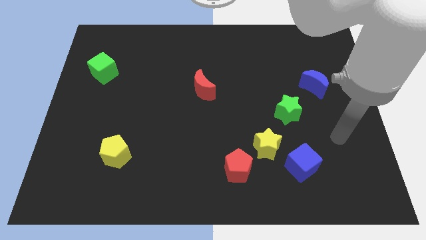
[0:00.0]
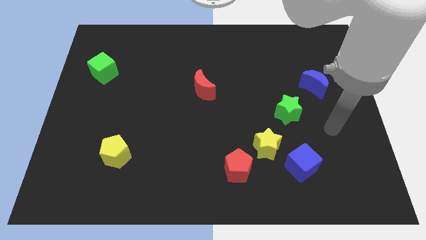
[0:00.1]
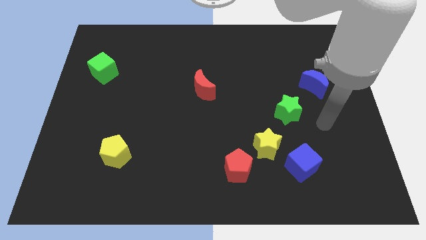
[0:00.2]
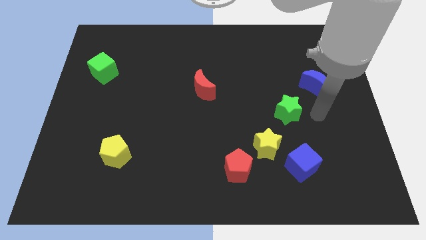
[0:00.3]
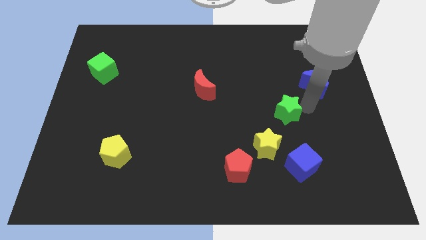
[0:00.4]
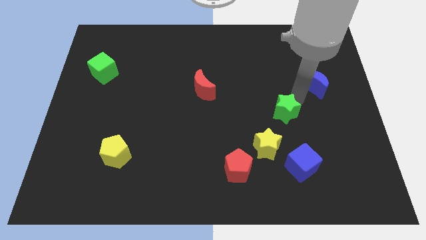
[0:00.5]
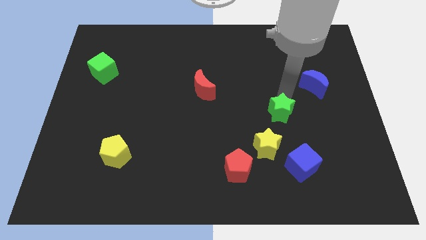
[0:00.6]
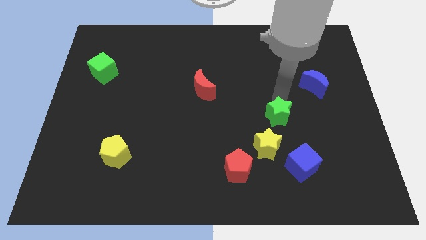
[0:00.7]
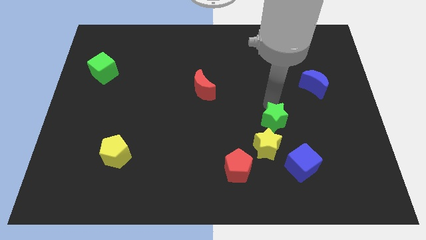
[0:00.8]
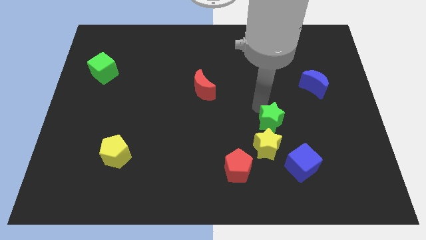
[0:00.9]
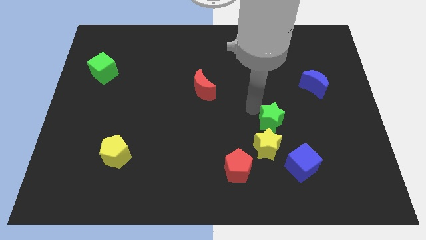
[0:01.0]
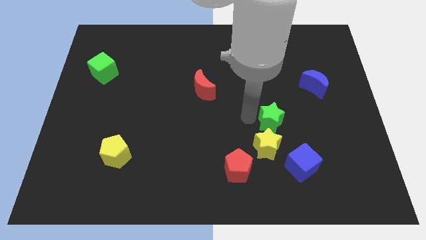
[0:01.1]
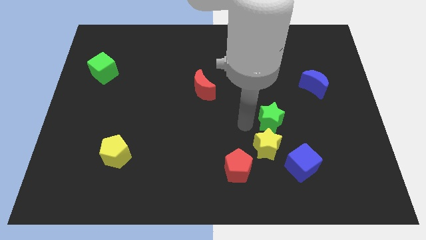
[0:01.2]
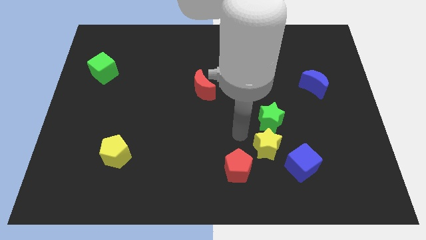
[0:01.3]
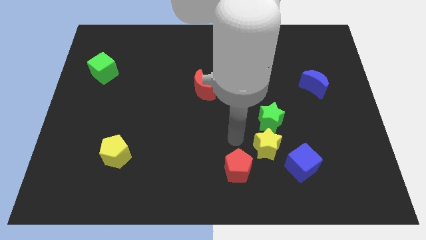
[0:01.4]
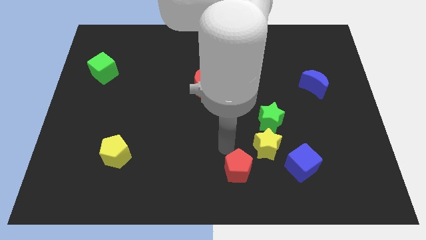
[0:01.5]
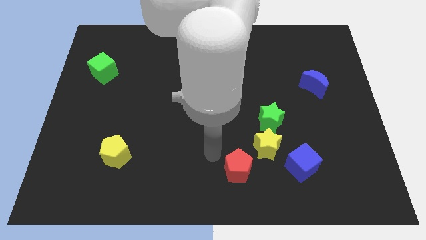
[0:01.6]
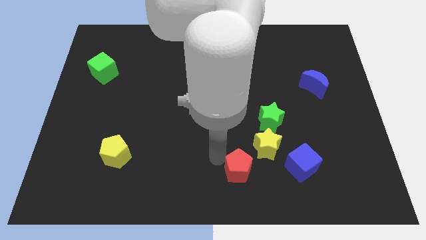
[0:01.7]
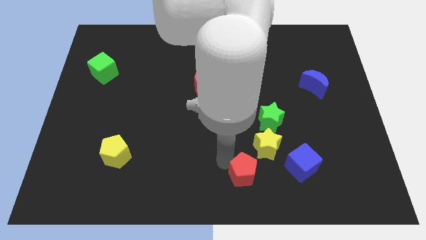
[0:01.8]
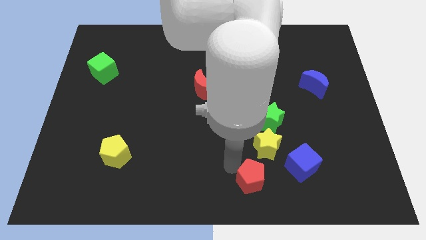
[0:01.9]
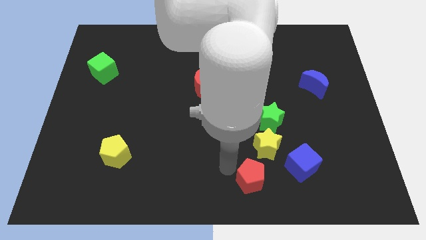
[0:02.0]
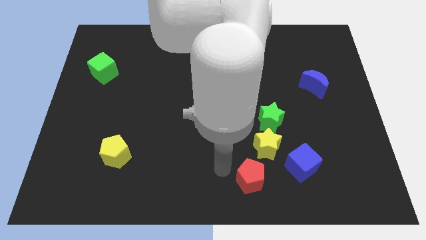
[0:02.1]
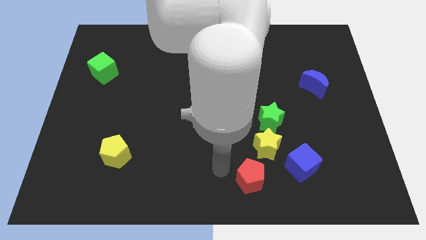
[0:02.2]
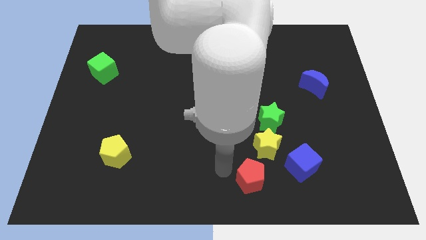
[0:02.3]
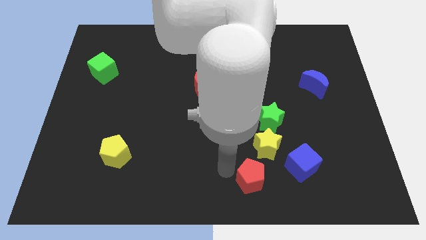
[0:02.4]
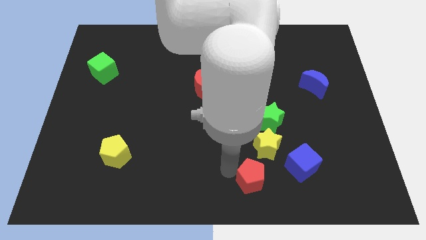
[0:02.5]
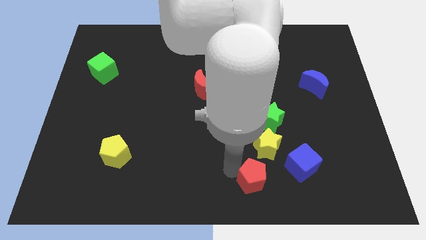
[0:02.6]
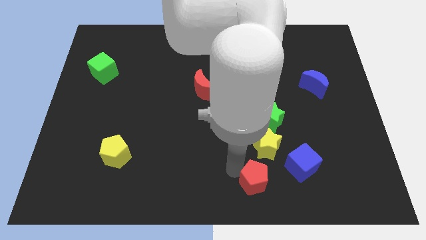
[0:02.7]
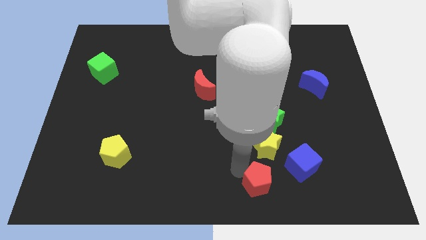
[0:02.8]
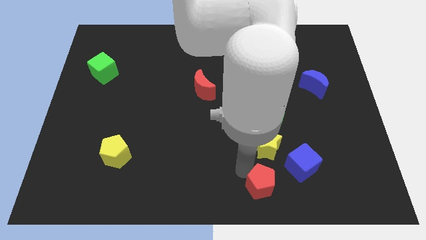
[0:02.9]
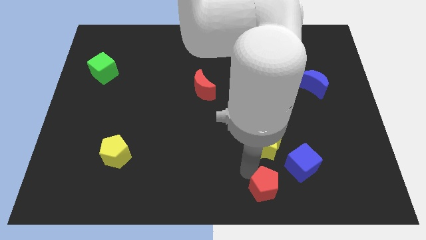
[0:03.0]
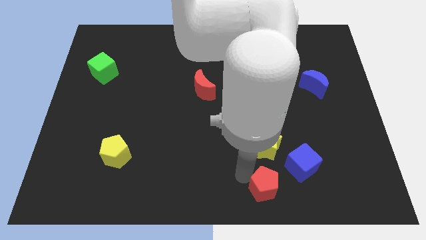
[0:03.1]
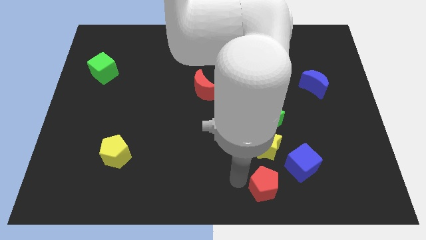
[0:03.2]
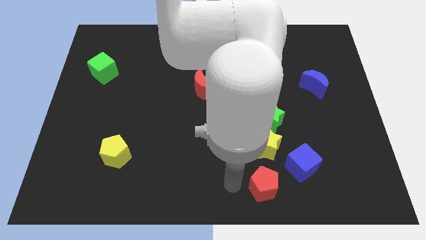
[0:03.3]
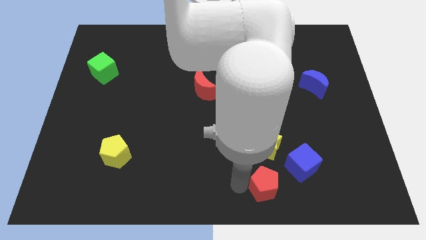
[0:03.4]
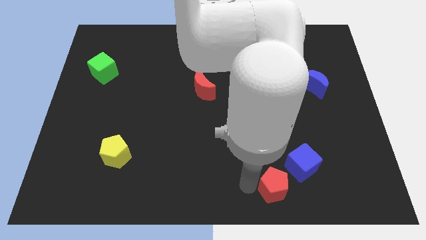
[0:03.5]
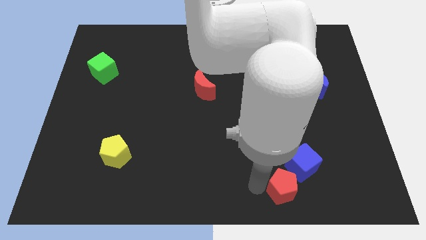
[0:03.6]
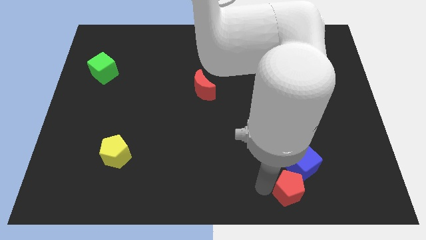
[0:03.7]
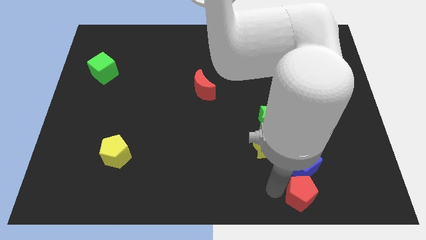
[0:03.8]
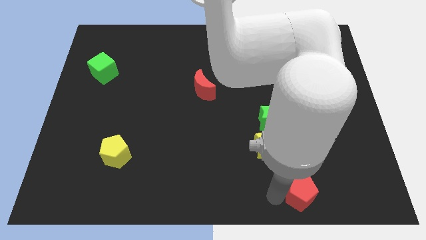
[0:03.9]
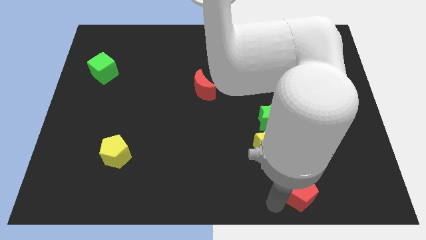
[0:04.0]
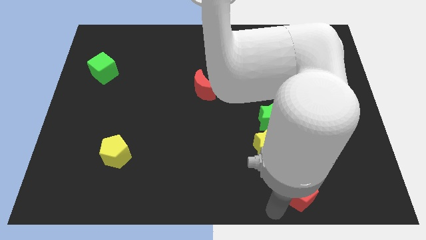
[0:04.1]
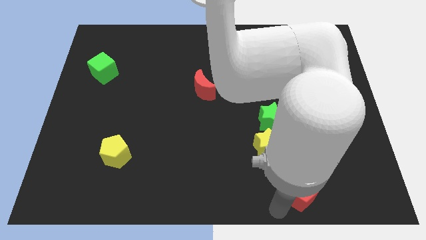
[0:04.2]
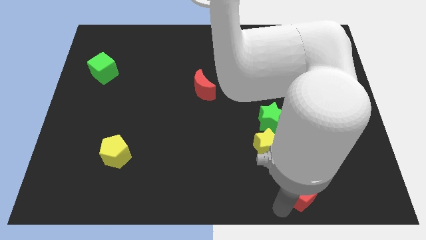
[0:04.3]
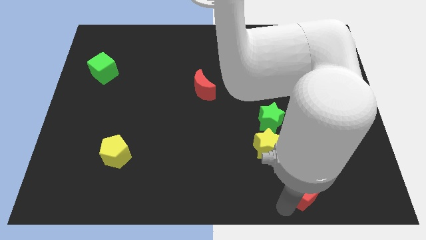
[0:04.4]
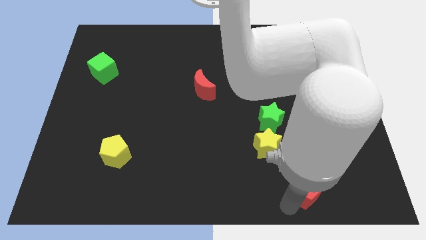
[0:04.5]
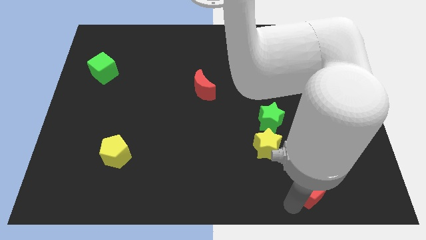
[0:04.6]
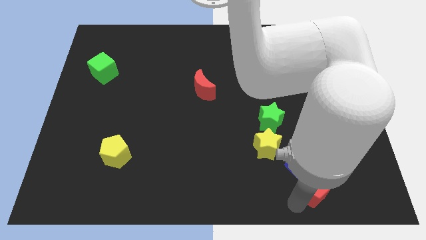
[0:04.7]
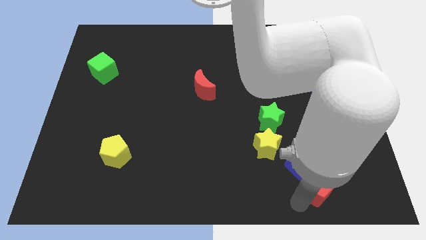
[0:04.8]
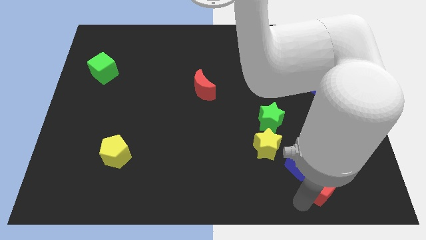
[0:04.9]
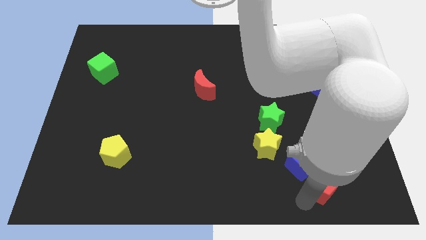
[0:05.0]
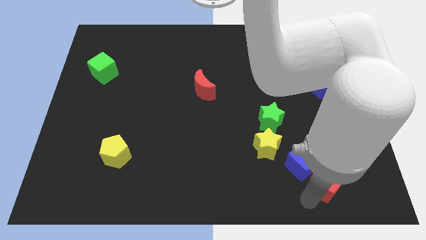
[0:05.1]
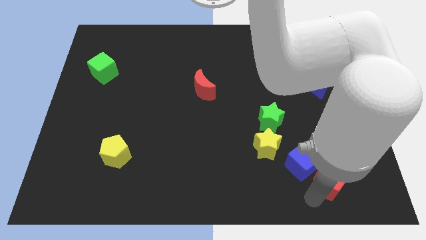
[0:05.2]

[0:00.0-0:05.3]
slide the red pentagon just right of the blue cube

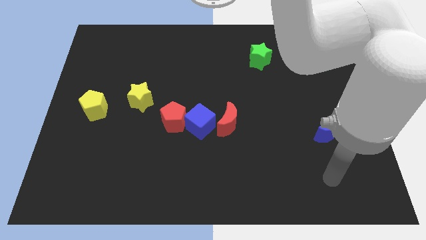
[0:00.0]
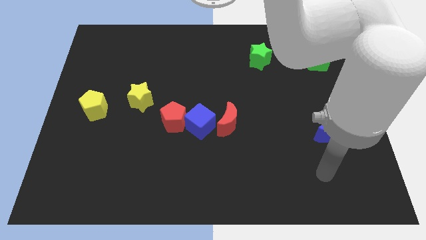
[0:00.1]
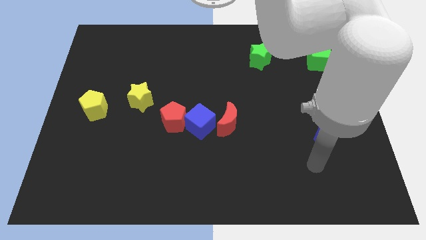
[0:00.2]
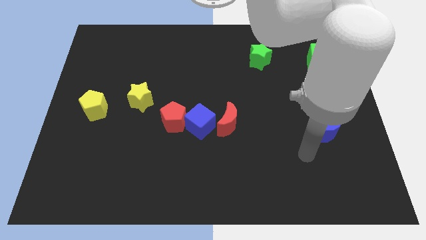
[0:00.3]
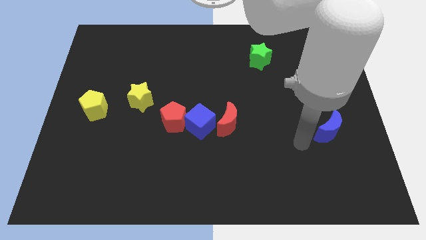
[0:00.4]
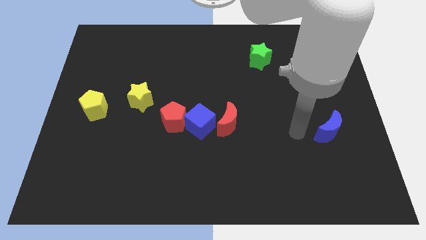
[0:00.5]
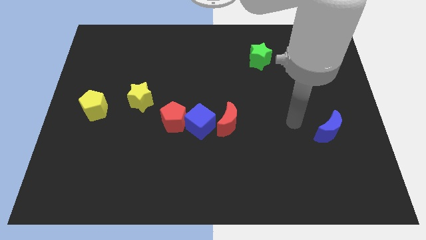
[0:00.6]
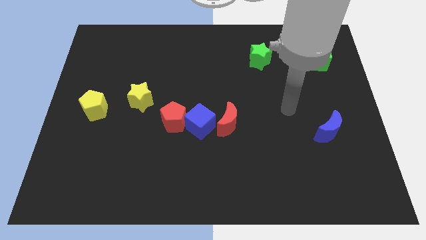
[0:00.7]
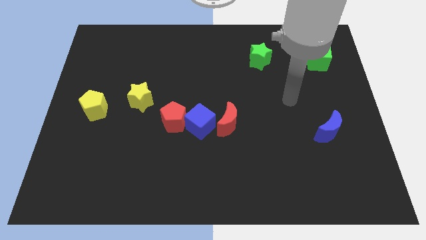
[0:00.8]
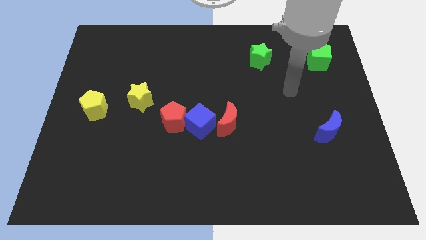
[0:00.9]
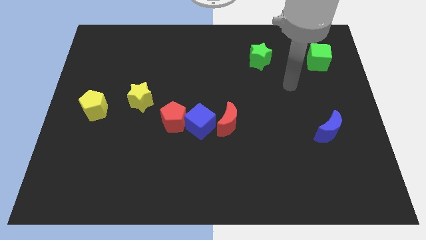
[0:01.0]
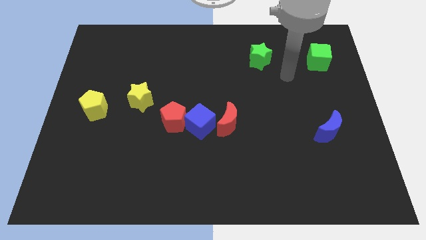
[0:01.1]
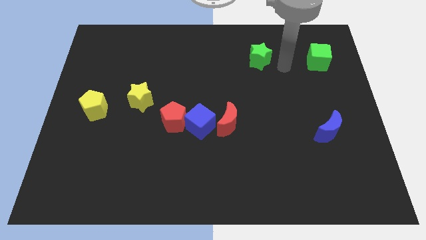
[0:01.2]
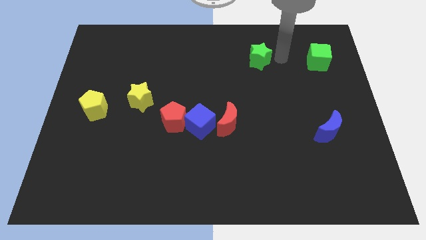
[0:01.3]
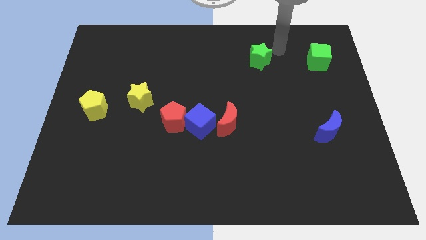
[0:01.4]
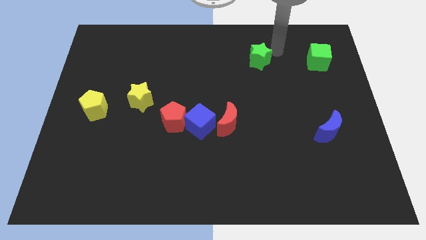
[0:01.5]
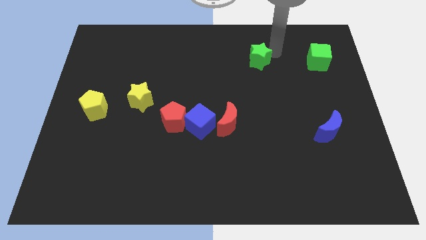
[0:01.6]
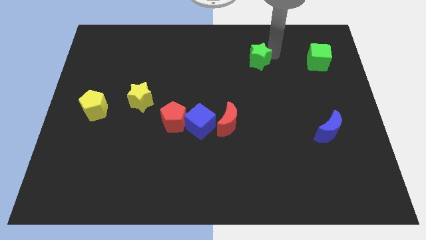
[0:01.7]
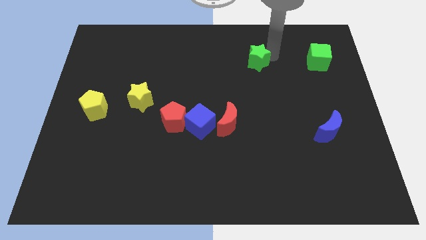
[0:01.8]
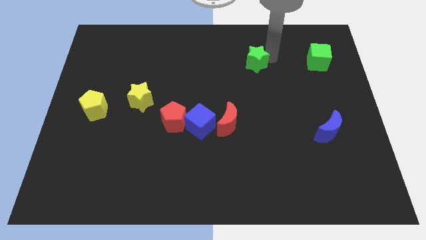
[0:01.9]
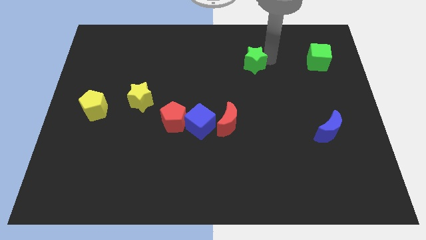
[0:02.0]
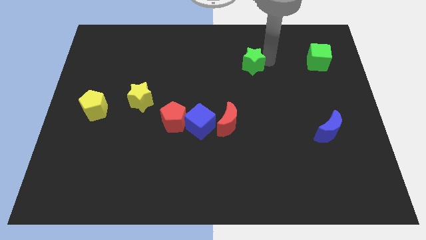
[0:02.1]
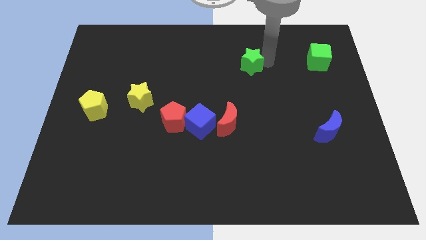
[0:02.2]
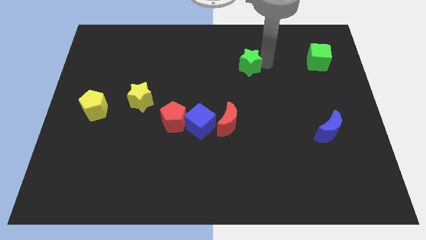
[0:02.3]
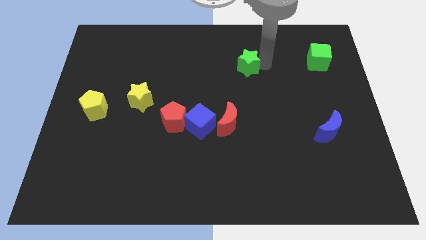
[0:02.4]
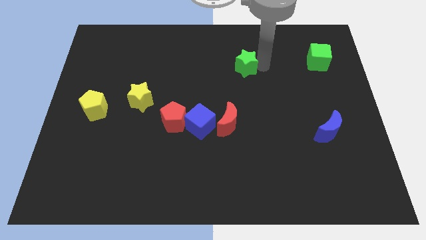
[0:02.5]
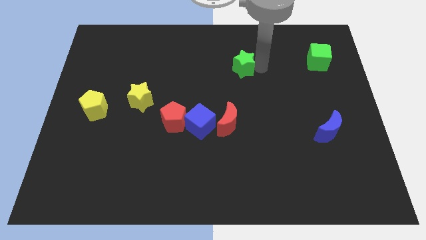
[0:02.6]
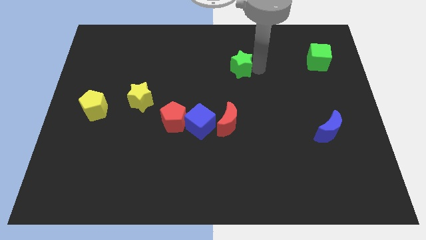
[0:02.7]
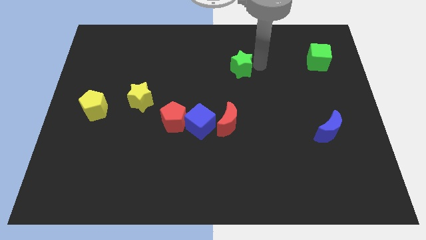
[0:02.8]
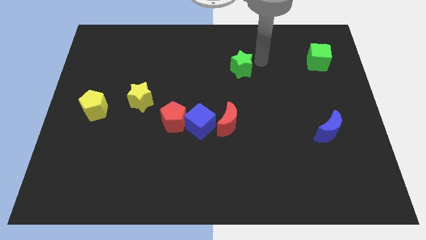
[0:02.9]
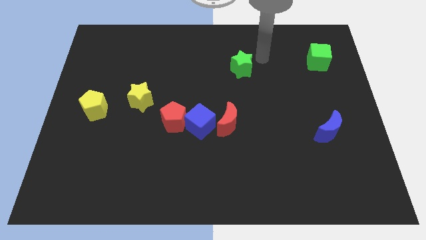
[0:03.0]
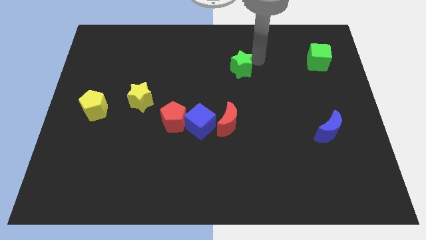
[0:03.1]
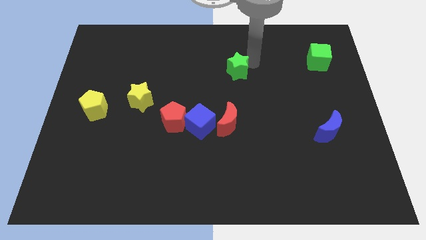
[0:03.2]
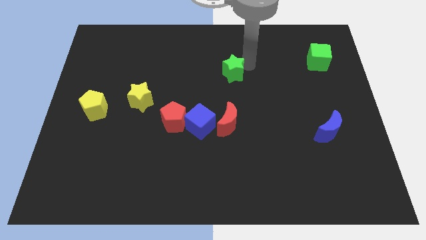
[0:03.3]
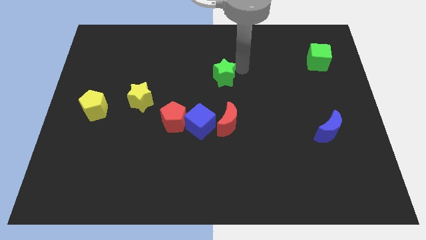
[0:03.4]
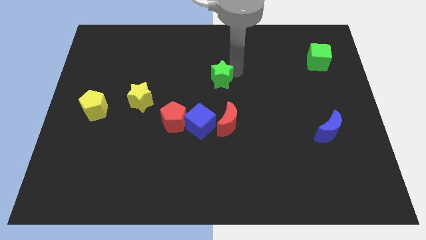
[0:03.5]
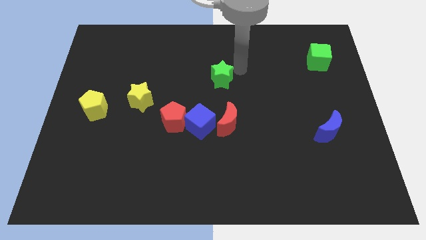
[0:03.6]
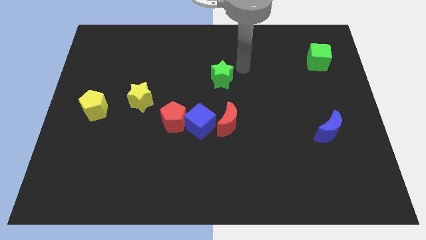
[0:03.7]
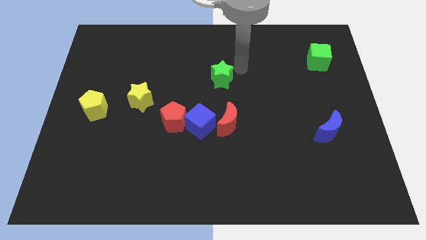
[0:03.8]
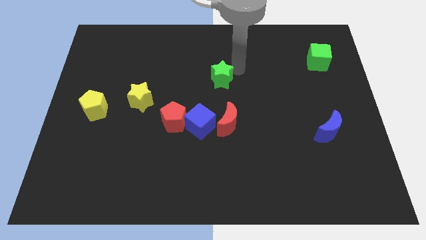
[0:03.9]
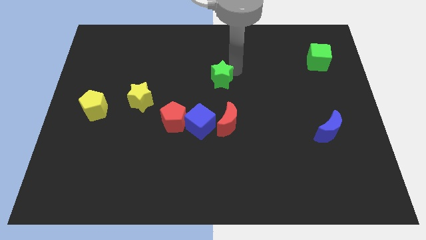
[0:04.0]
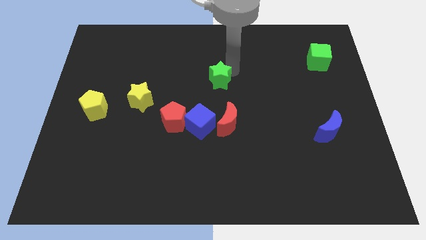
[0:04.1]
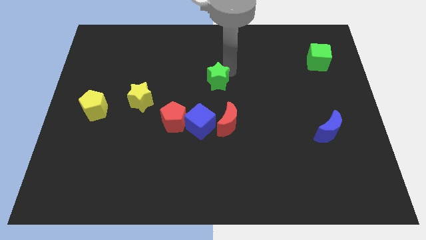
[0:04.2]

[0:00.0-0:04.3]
move the green star above the blue cube
